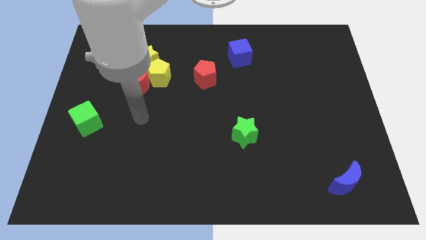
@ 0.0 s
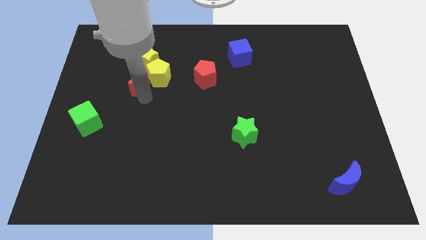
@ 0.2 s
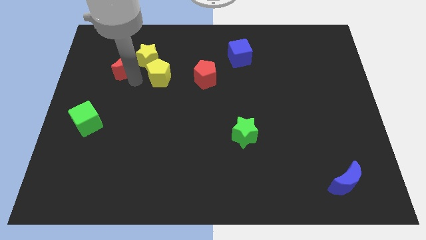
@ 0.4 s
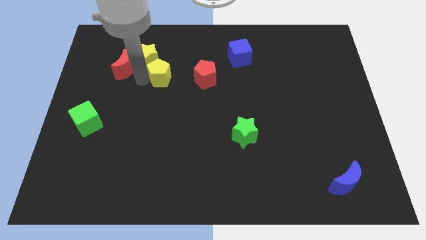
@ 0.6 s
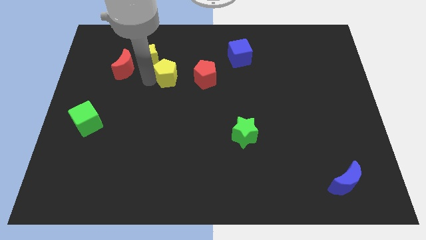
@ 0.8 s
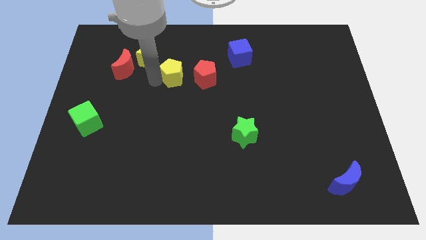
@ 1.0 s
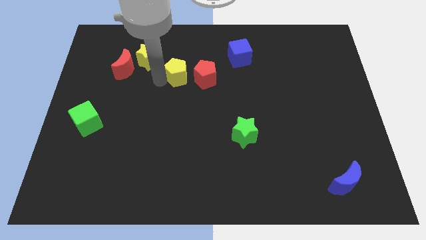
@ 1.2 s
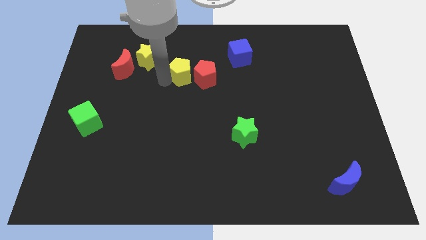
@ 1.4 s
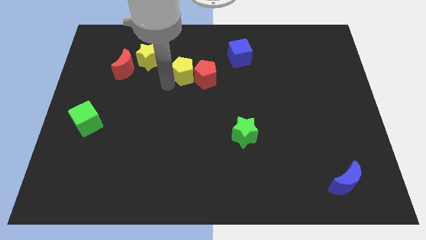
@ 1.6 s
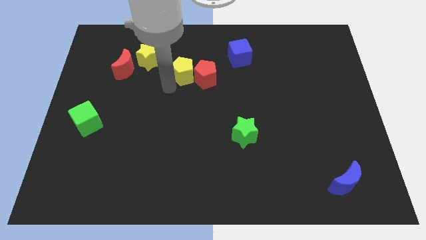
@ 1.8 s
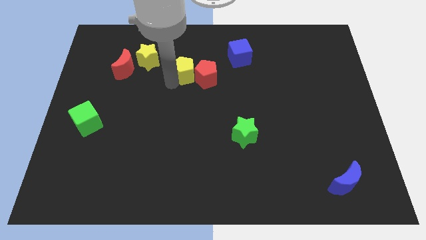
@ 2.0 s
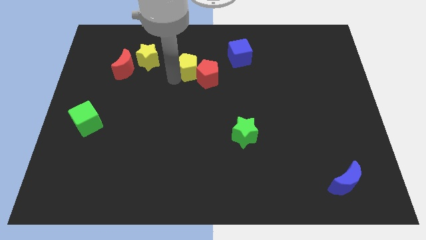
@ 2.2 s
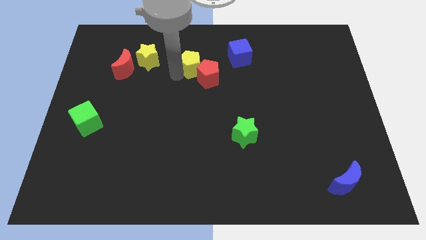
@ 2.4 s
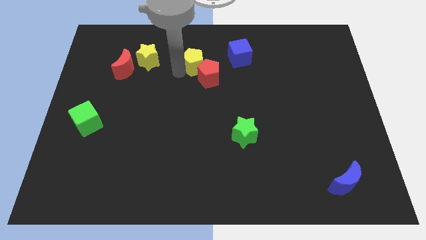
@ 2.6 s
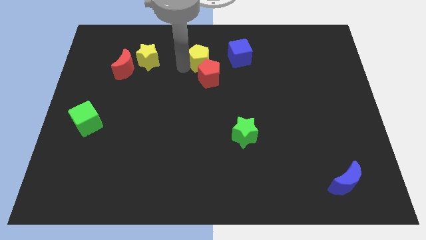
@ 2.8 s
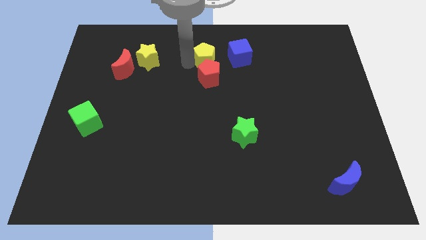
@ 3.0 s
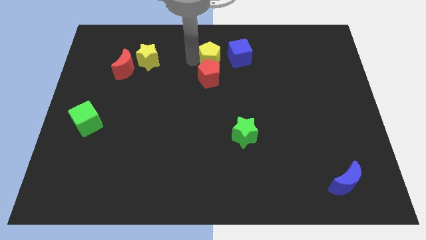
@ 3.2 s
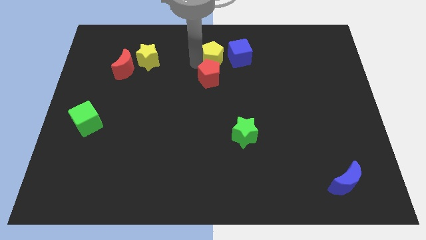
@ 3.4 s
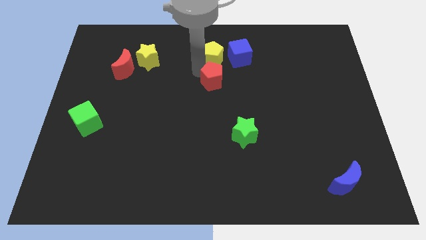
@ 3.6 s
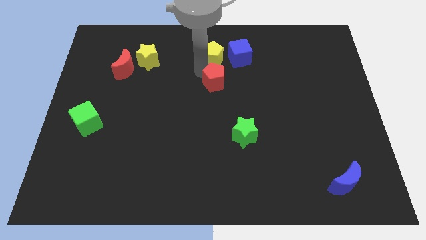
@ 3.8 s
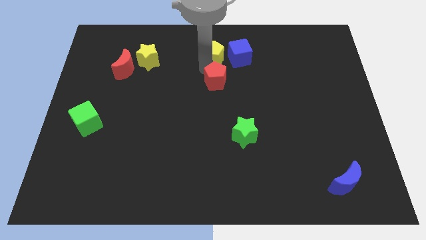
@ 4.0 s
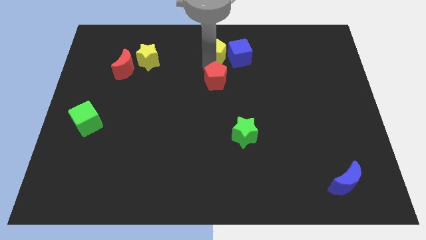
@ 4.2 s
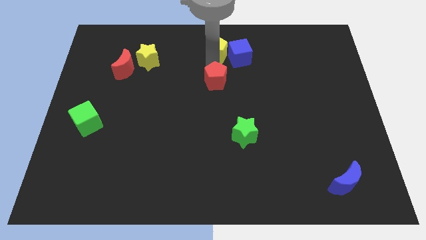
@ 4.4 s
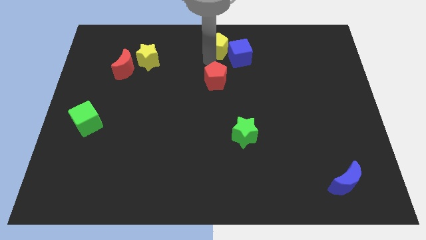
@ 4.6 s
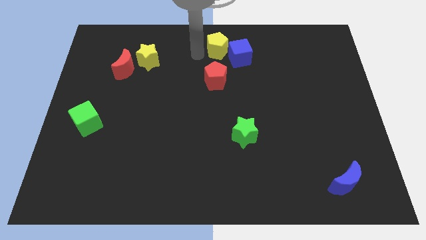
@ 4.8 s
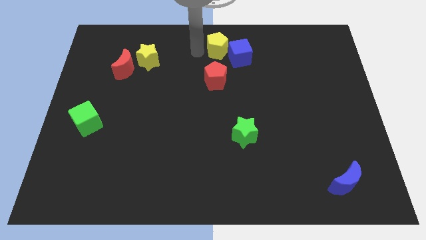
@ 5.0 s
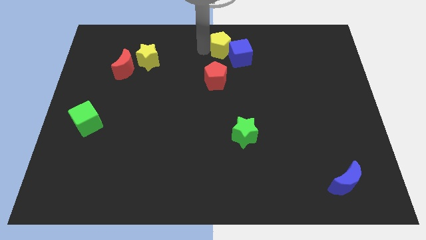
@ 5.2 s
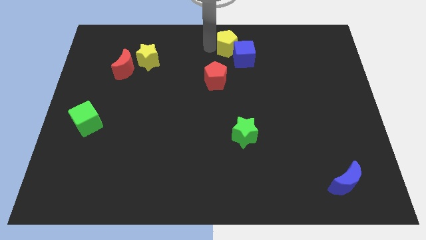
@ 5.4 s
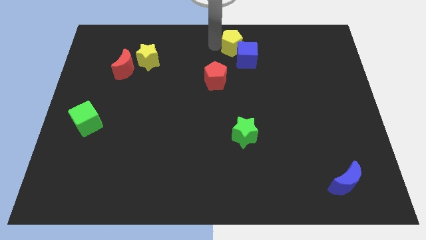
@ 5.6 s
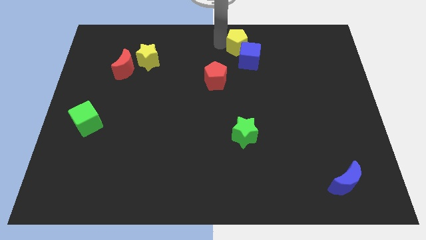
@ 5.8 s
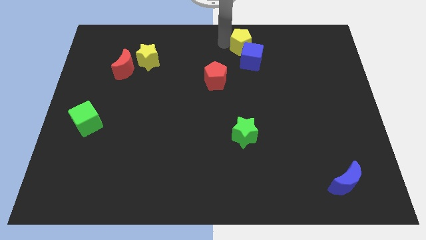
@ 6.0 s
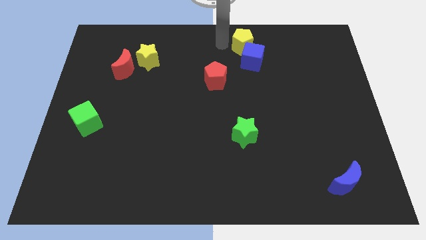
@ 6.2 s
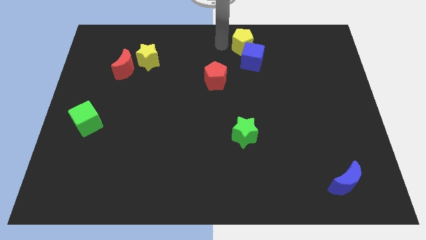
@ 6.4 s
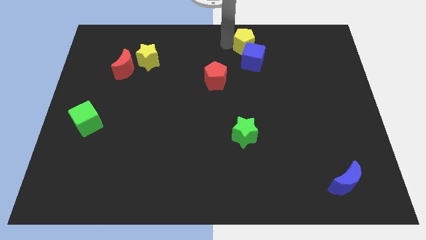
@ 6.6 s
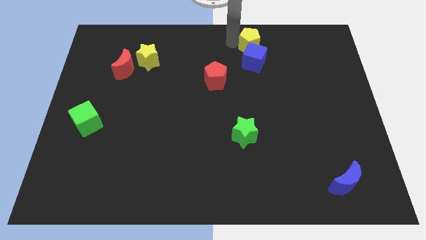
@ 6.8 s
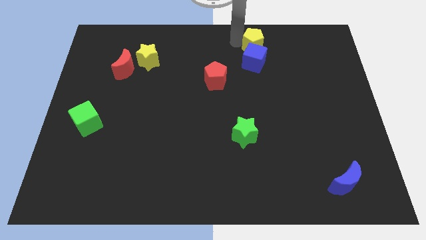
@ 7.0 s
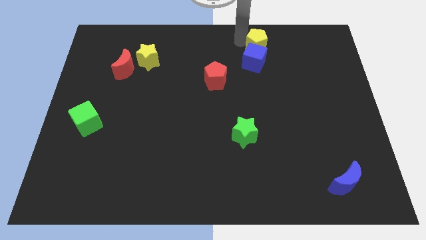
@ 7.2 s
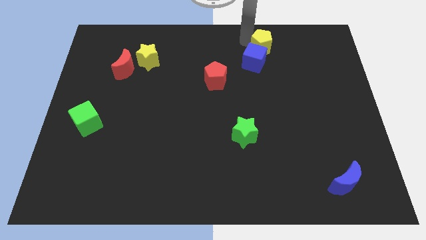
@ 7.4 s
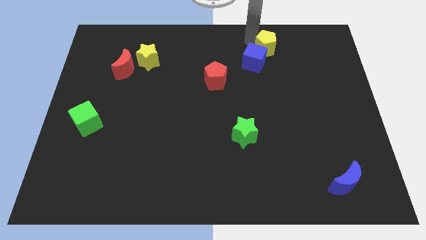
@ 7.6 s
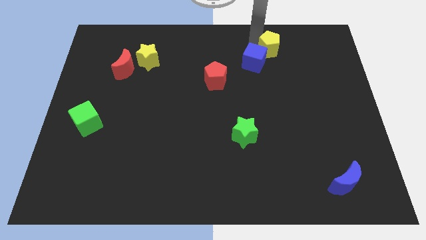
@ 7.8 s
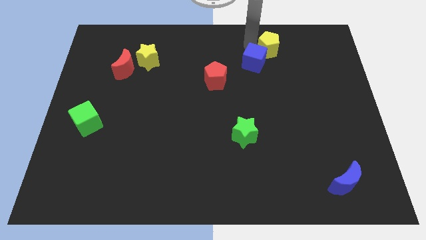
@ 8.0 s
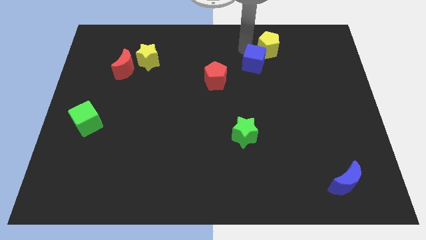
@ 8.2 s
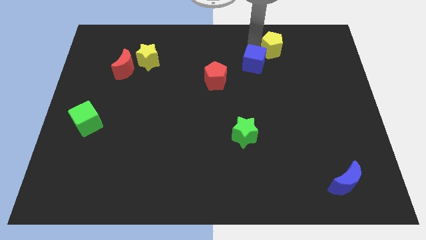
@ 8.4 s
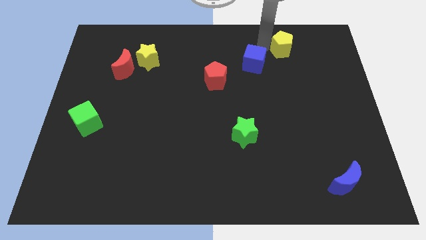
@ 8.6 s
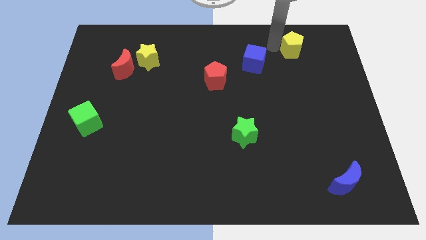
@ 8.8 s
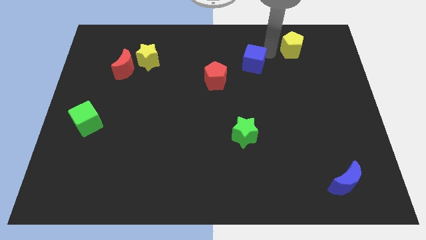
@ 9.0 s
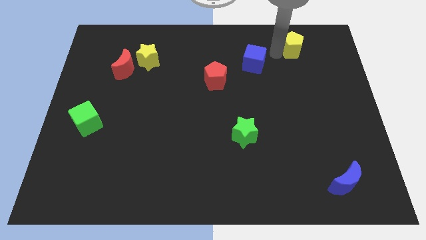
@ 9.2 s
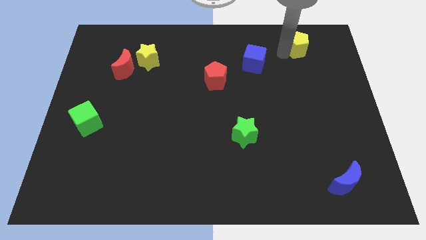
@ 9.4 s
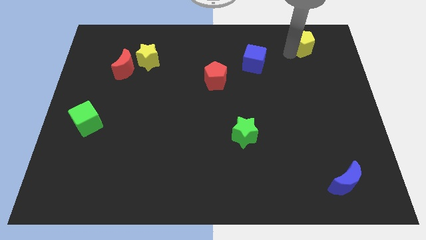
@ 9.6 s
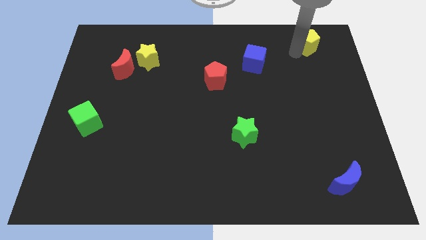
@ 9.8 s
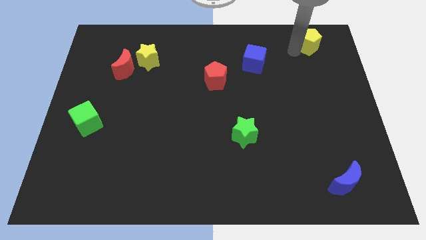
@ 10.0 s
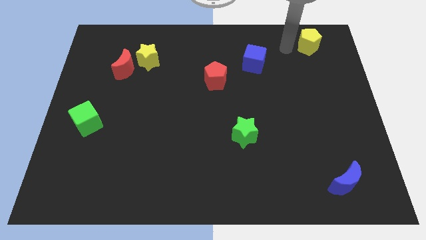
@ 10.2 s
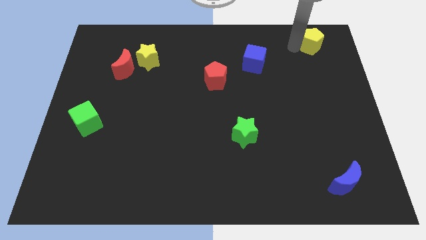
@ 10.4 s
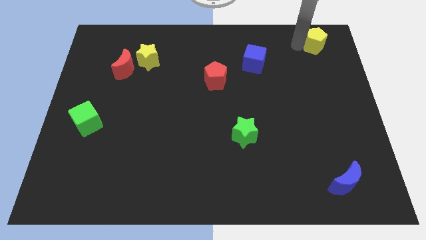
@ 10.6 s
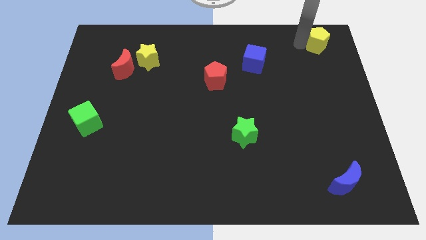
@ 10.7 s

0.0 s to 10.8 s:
push the yellow pentagon to the top right of the board
